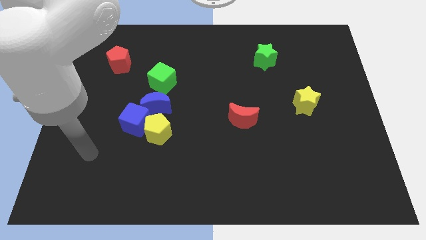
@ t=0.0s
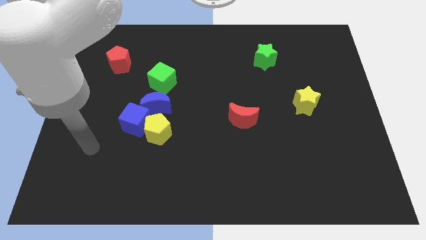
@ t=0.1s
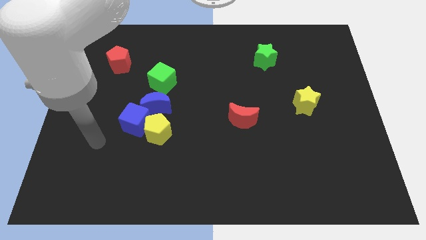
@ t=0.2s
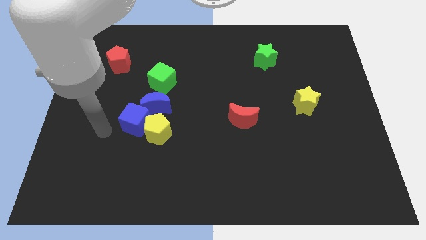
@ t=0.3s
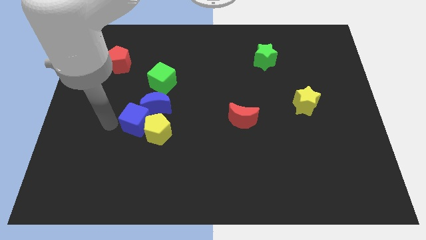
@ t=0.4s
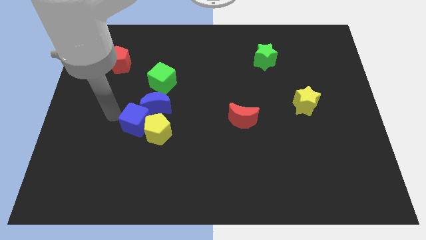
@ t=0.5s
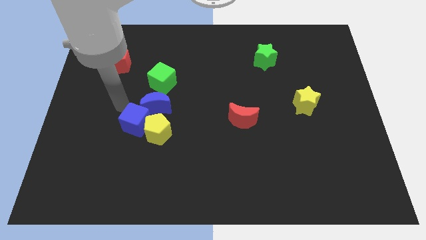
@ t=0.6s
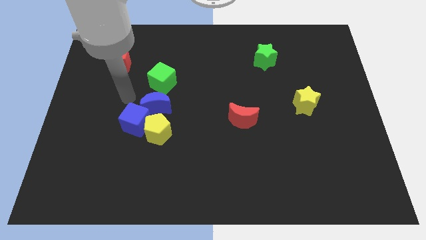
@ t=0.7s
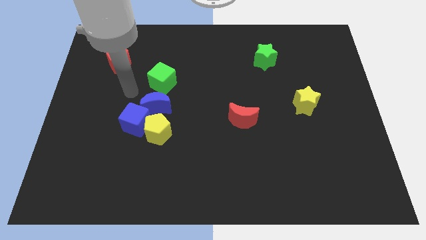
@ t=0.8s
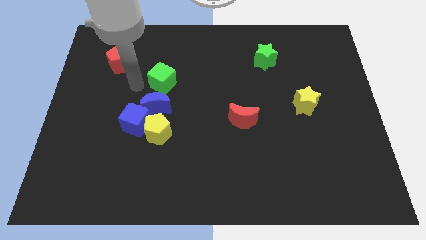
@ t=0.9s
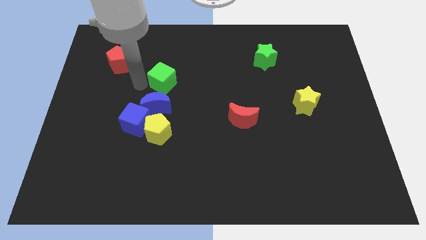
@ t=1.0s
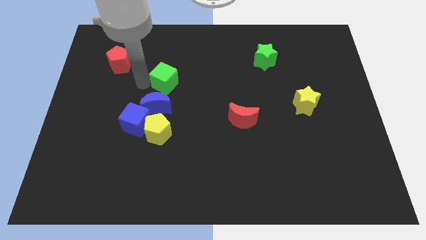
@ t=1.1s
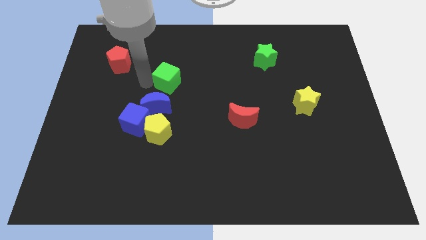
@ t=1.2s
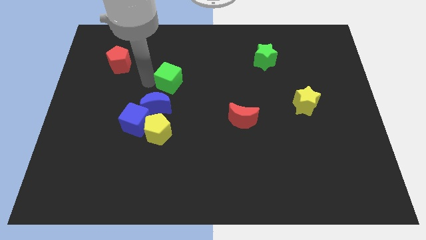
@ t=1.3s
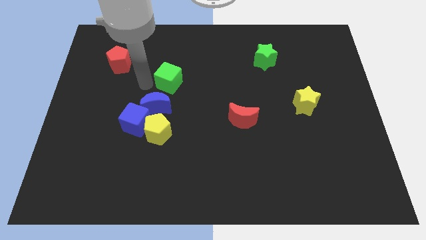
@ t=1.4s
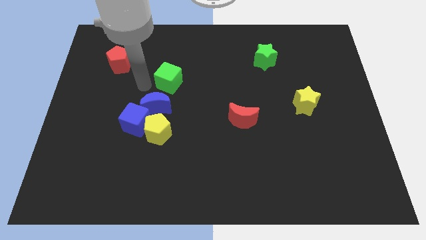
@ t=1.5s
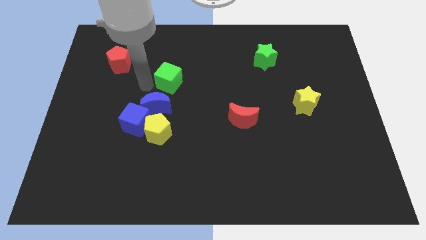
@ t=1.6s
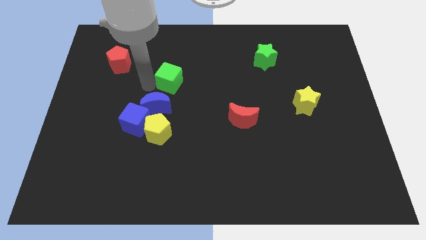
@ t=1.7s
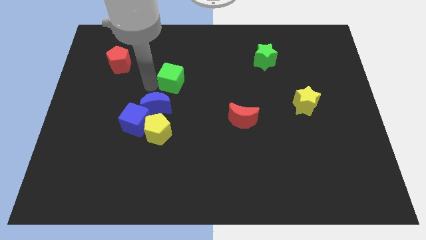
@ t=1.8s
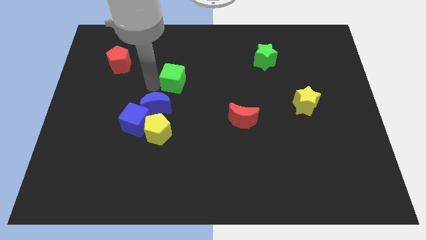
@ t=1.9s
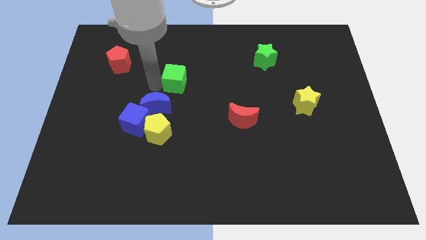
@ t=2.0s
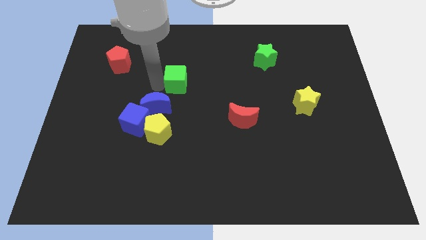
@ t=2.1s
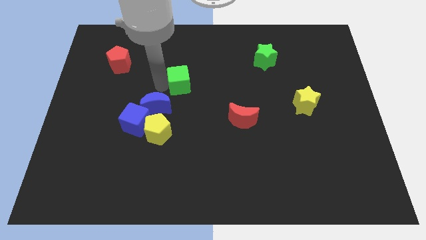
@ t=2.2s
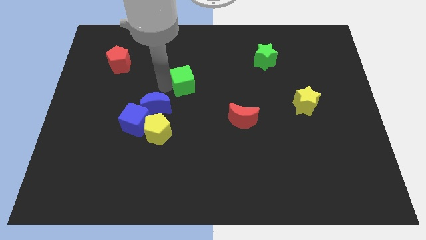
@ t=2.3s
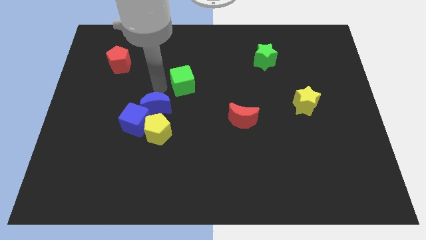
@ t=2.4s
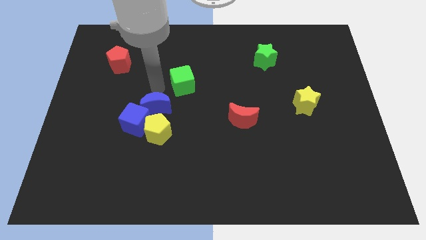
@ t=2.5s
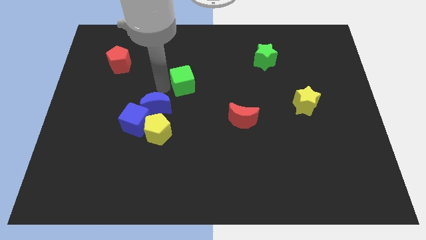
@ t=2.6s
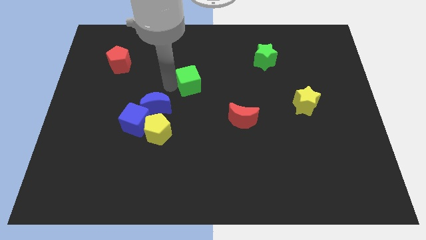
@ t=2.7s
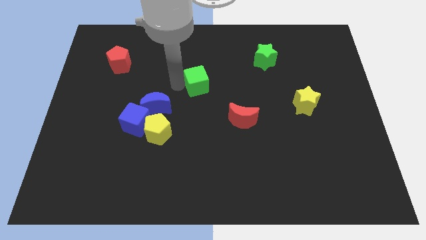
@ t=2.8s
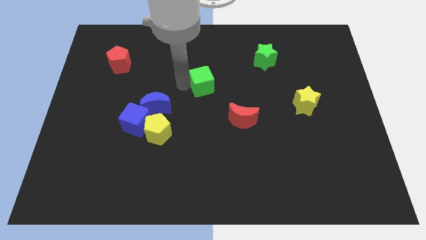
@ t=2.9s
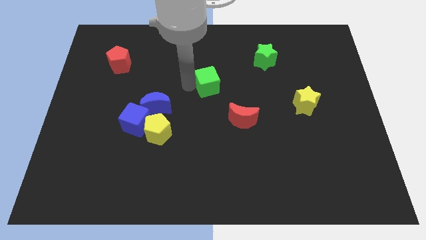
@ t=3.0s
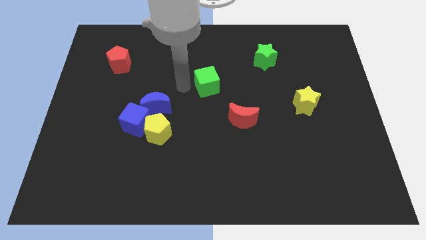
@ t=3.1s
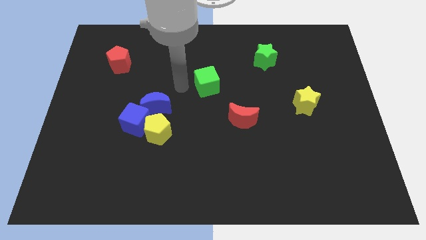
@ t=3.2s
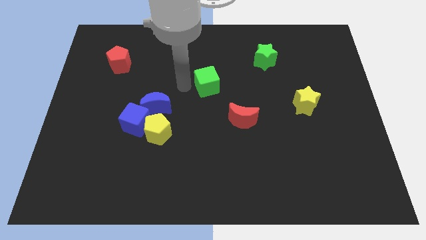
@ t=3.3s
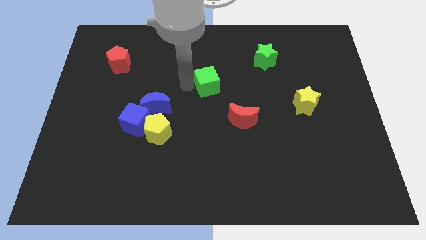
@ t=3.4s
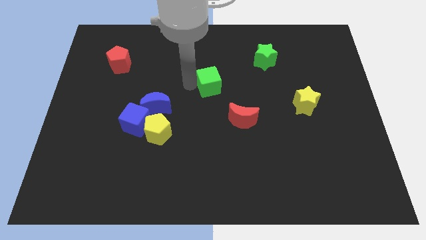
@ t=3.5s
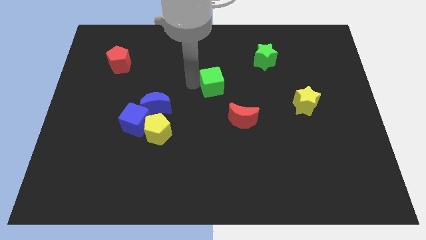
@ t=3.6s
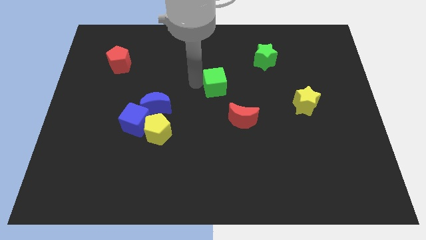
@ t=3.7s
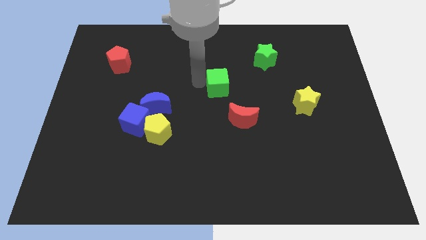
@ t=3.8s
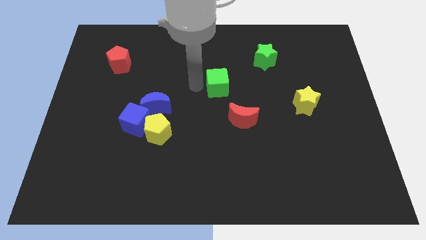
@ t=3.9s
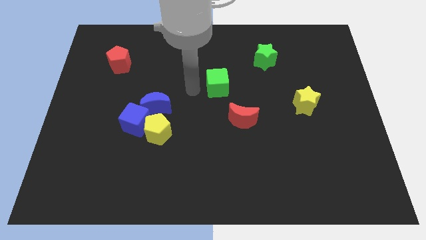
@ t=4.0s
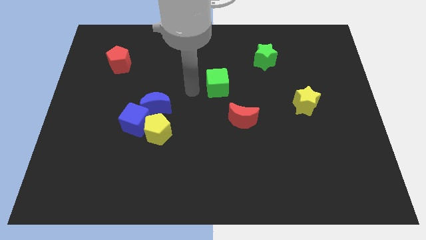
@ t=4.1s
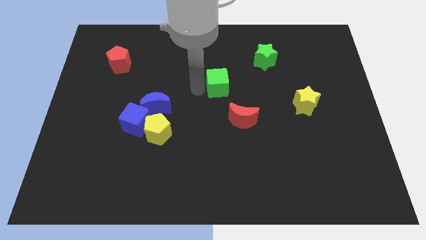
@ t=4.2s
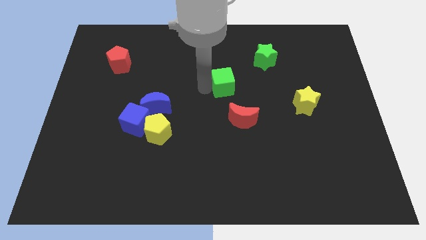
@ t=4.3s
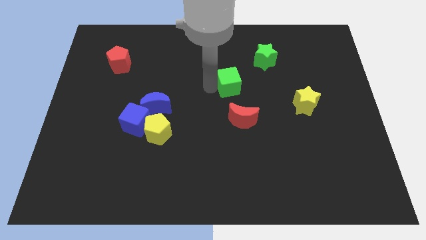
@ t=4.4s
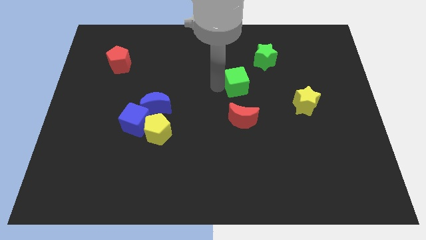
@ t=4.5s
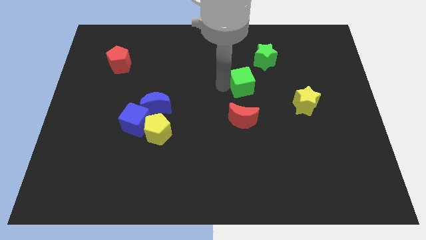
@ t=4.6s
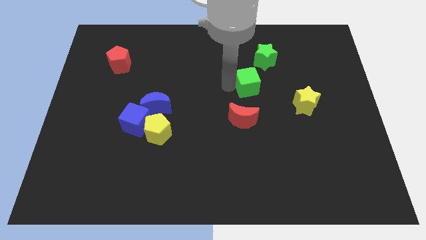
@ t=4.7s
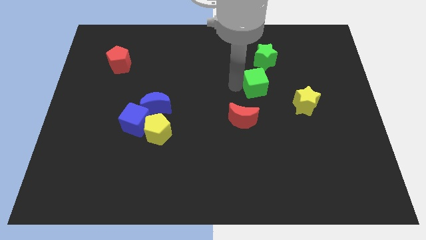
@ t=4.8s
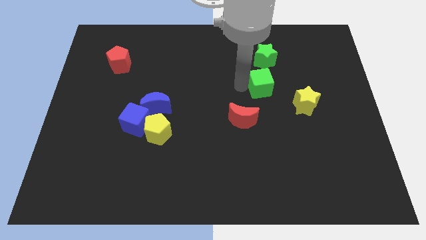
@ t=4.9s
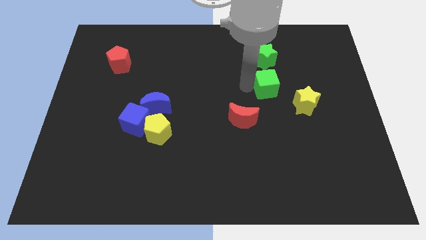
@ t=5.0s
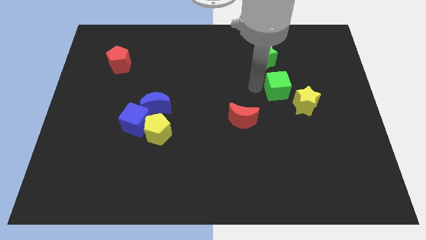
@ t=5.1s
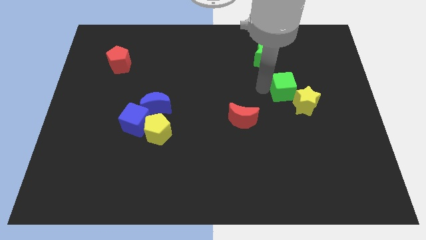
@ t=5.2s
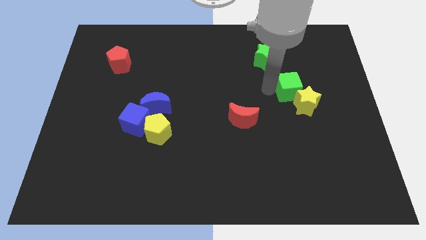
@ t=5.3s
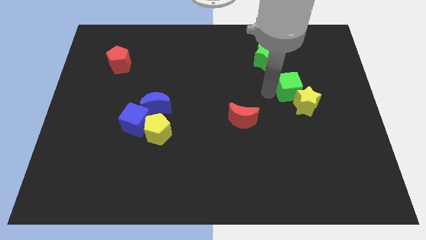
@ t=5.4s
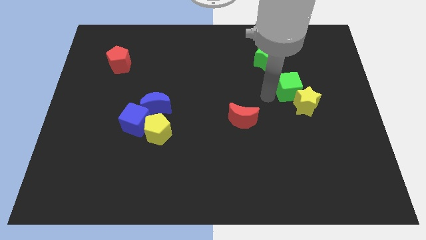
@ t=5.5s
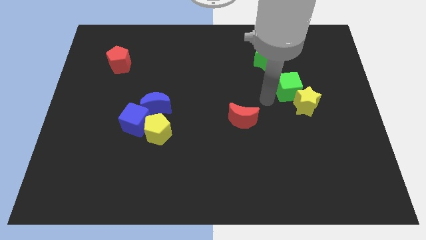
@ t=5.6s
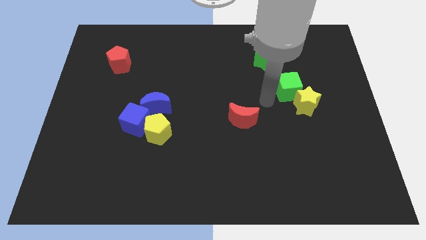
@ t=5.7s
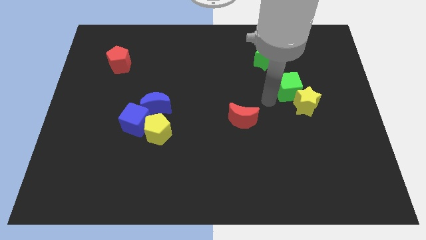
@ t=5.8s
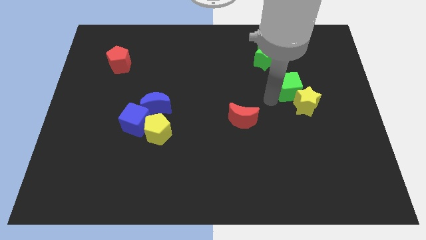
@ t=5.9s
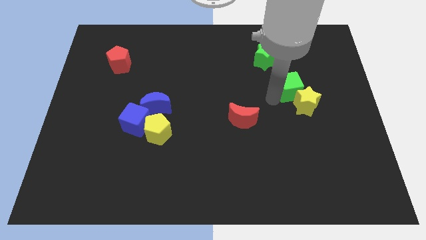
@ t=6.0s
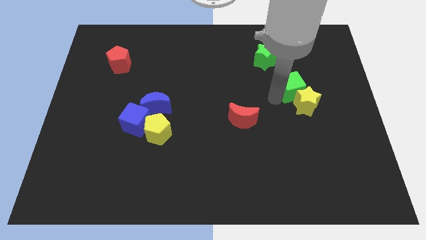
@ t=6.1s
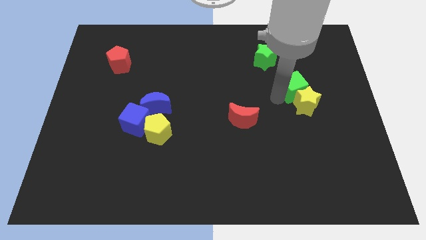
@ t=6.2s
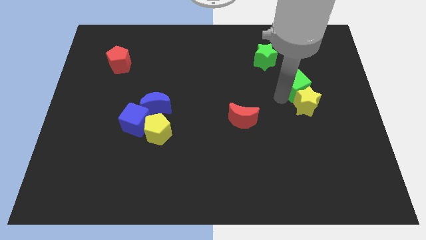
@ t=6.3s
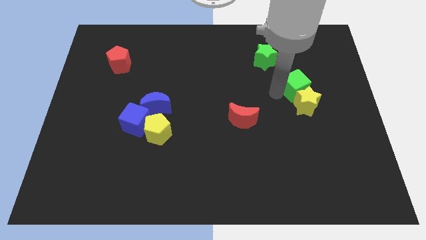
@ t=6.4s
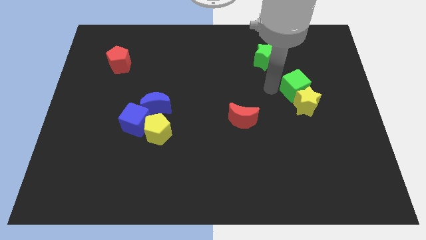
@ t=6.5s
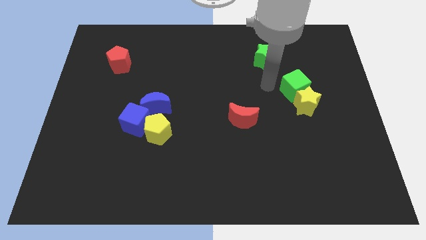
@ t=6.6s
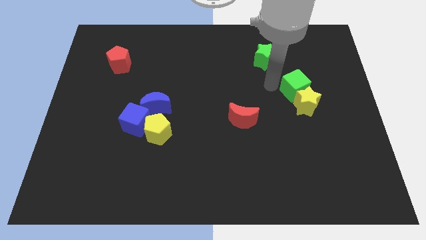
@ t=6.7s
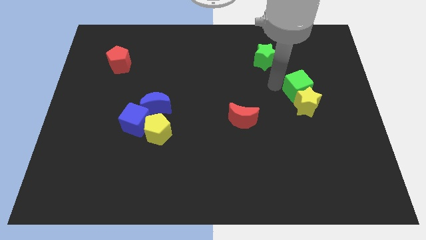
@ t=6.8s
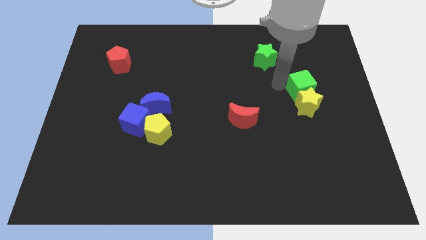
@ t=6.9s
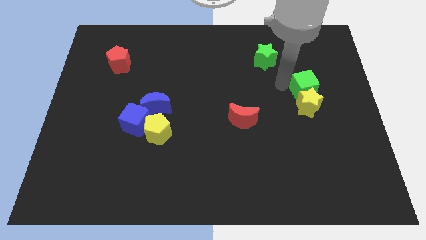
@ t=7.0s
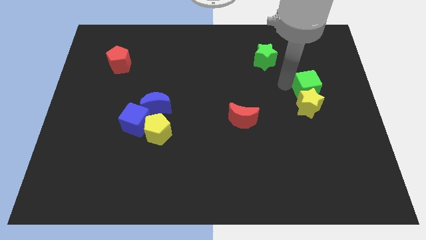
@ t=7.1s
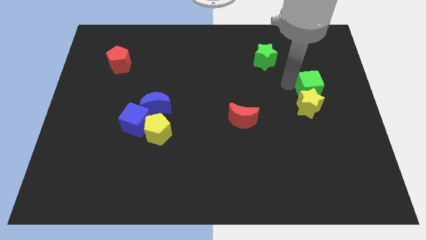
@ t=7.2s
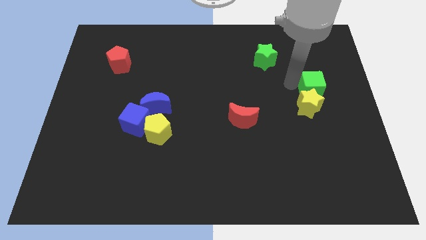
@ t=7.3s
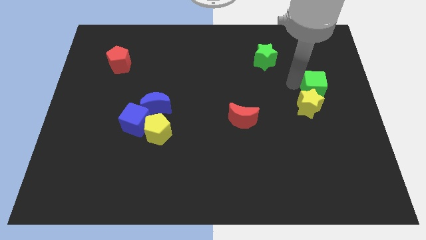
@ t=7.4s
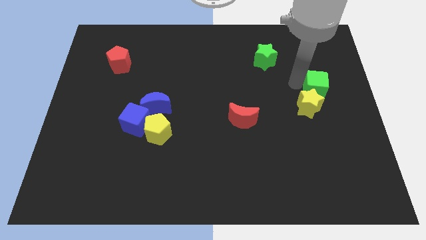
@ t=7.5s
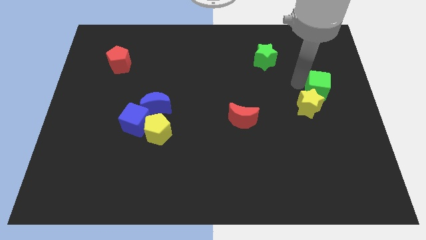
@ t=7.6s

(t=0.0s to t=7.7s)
put the green cube to the center right
